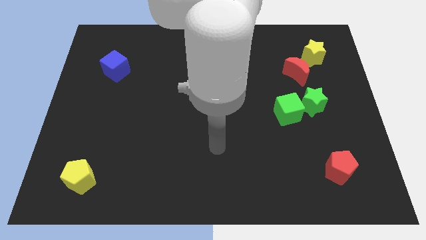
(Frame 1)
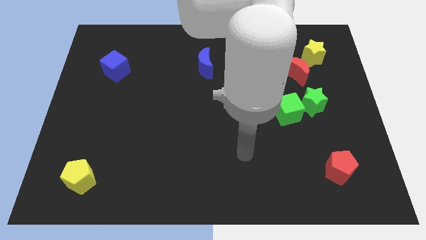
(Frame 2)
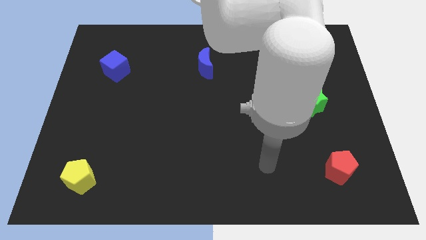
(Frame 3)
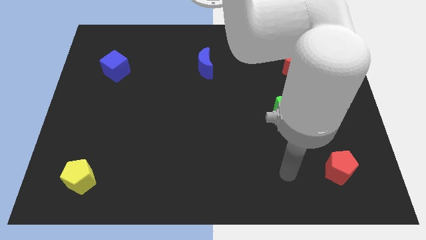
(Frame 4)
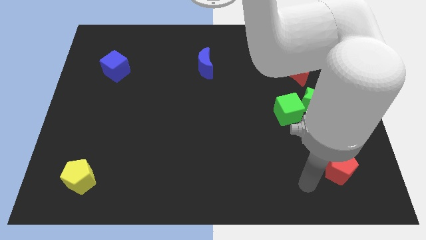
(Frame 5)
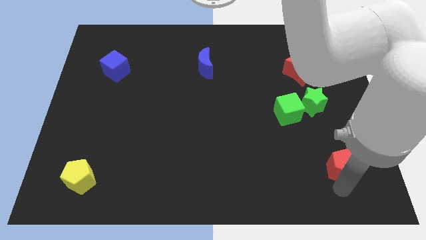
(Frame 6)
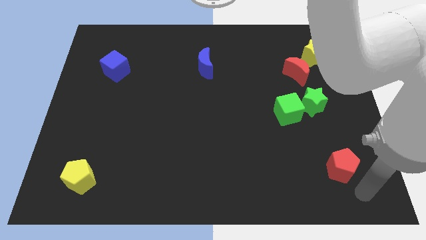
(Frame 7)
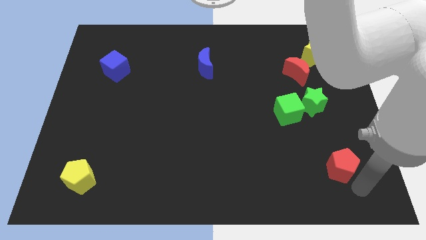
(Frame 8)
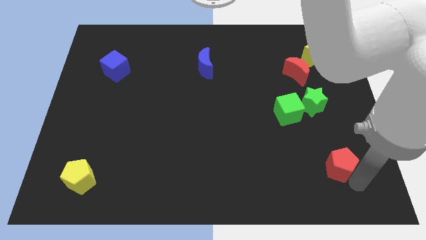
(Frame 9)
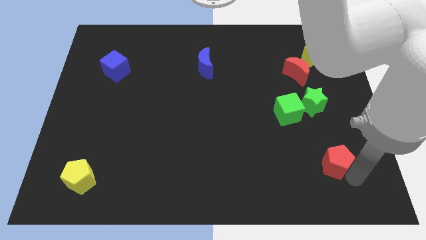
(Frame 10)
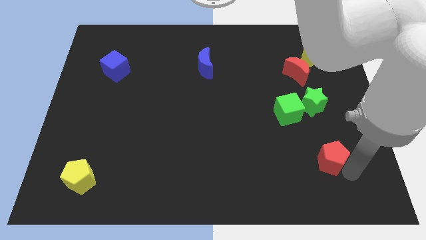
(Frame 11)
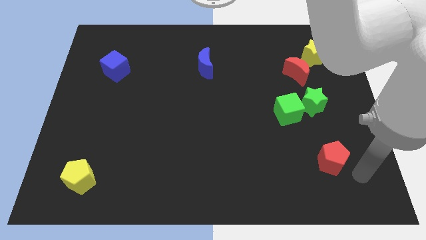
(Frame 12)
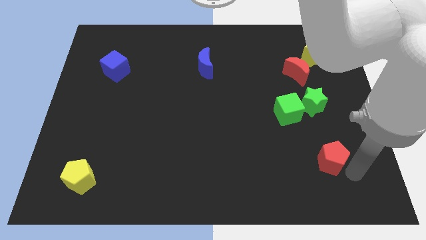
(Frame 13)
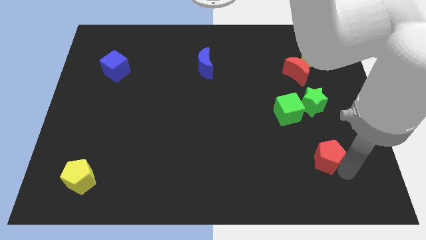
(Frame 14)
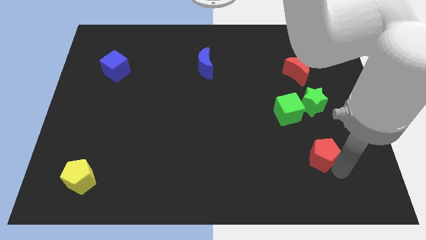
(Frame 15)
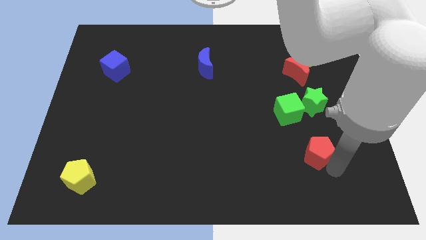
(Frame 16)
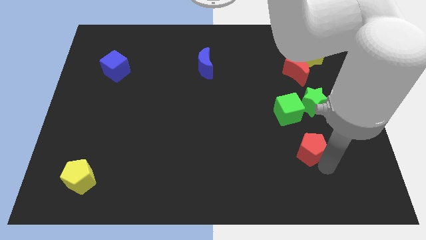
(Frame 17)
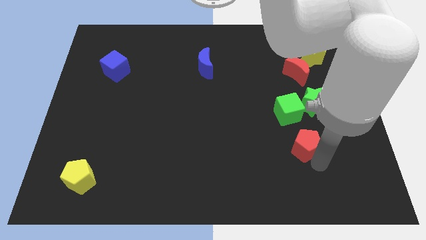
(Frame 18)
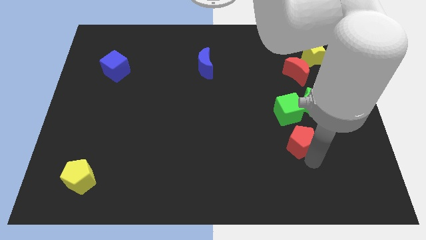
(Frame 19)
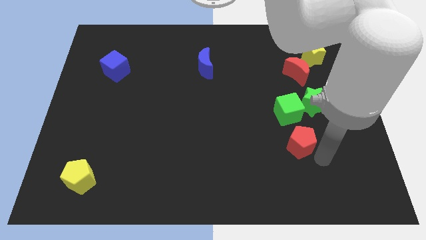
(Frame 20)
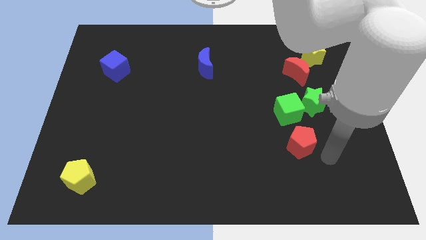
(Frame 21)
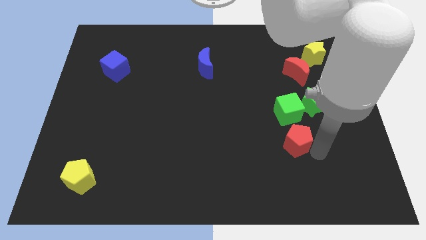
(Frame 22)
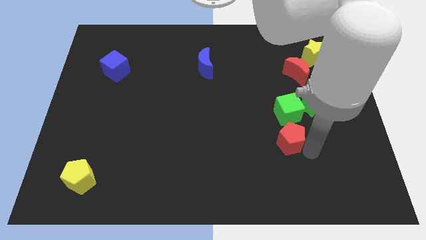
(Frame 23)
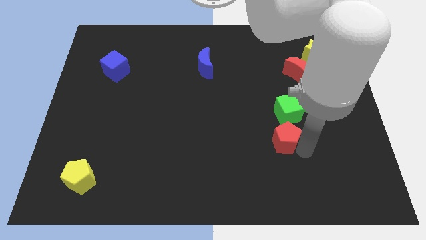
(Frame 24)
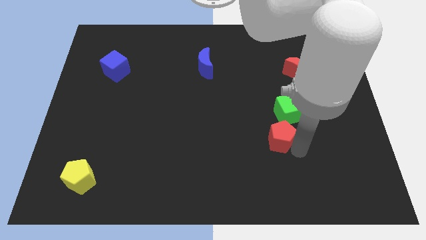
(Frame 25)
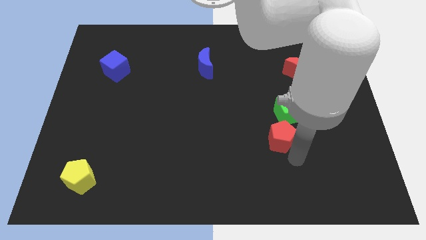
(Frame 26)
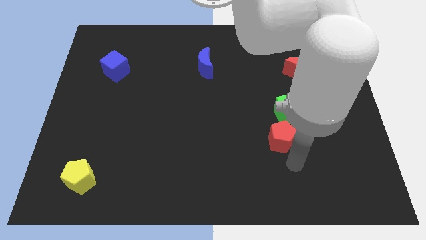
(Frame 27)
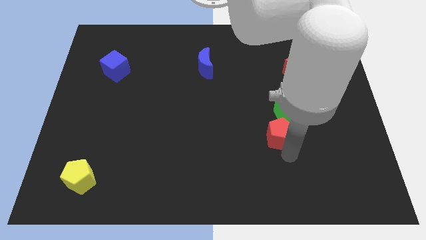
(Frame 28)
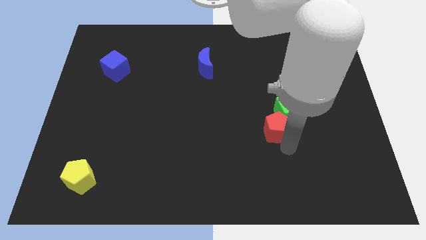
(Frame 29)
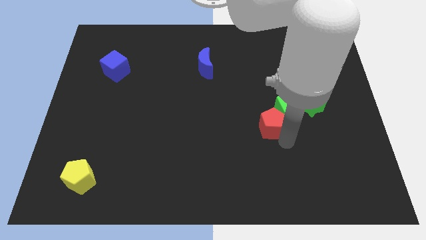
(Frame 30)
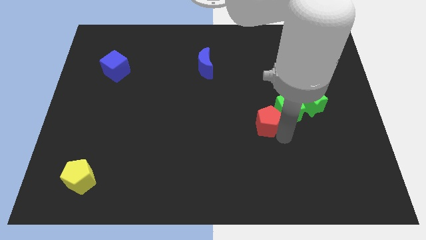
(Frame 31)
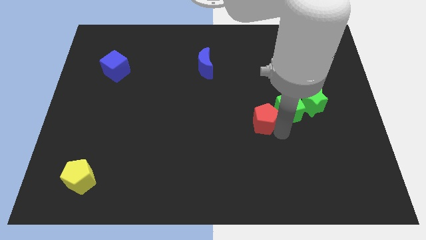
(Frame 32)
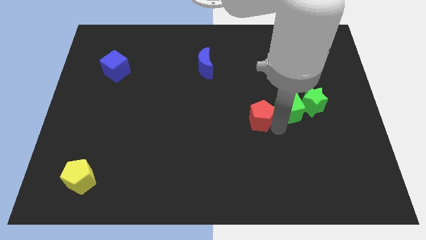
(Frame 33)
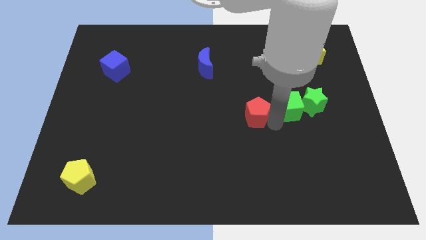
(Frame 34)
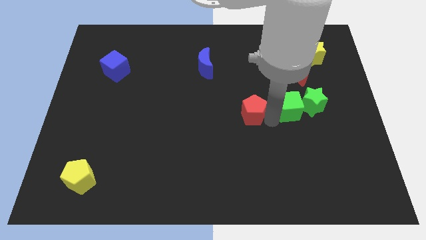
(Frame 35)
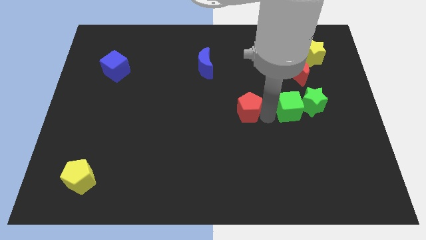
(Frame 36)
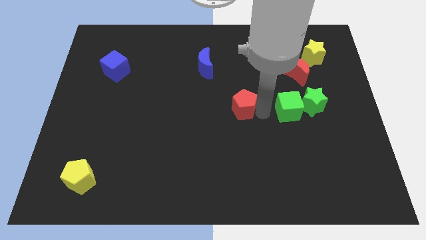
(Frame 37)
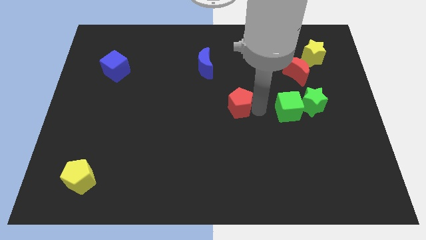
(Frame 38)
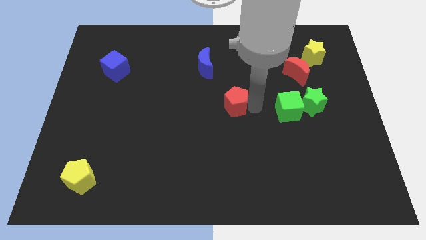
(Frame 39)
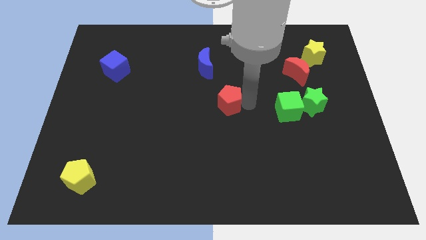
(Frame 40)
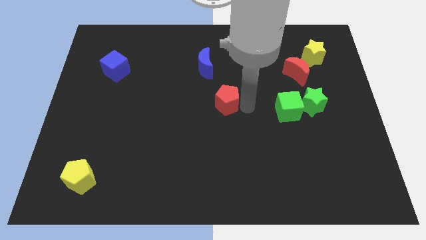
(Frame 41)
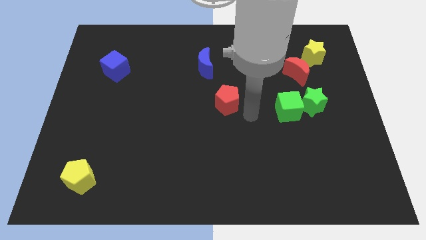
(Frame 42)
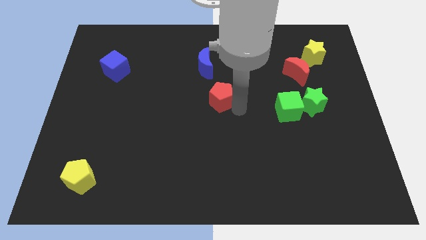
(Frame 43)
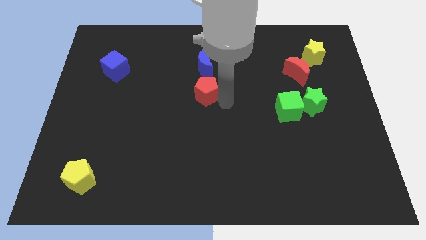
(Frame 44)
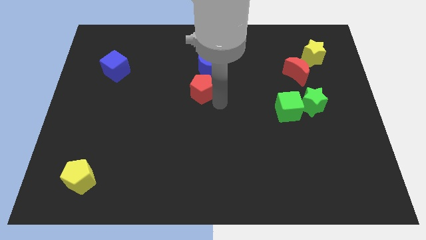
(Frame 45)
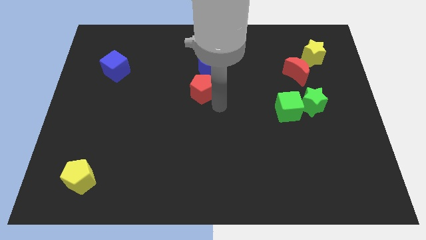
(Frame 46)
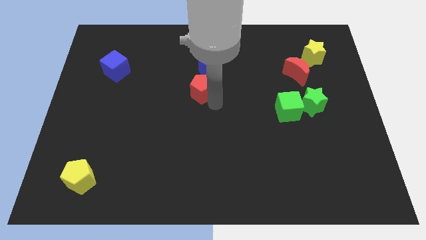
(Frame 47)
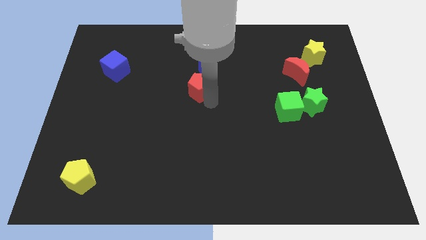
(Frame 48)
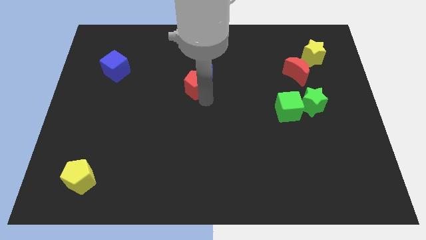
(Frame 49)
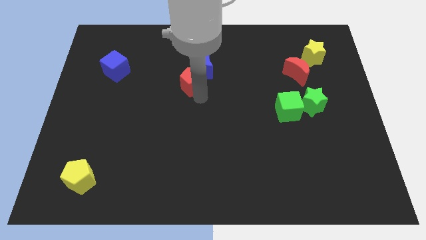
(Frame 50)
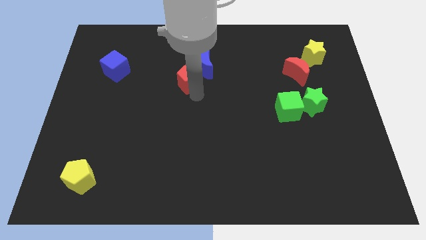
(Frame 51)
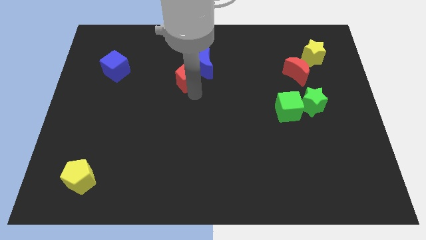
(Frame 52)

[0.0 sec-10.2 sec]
move the red pentagon just left of the blue moon

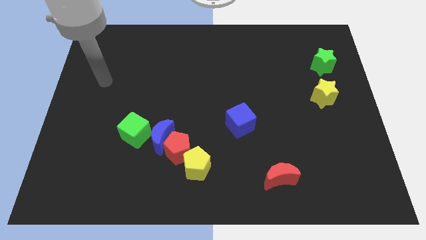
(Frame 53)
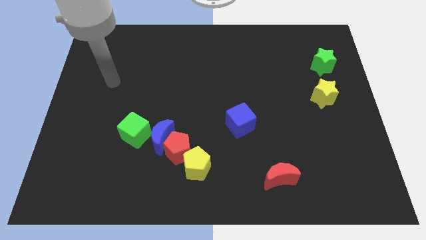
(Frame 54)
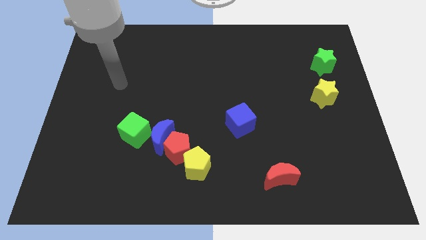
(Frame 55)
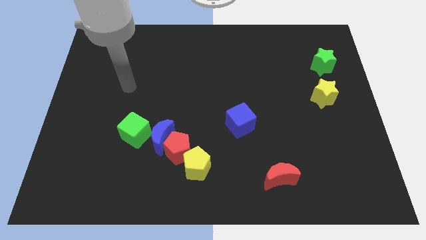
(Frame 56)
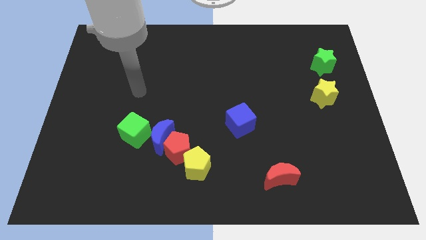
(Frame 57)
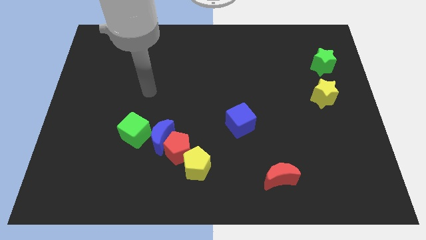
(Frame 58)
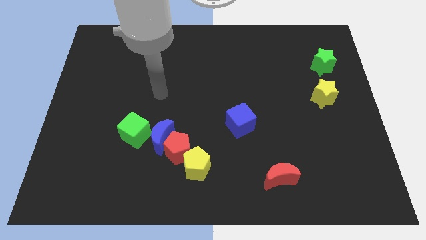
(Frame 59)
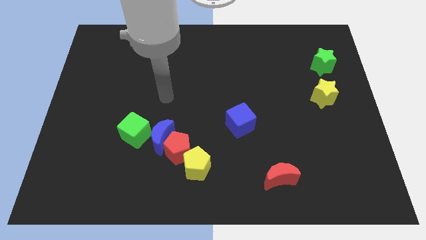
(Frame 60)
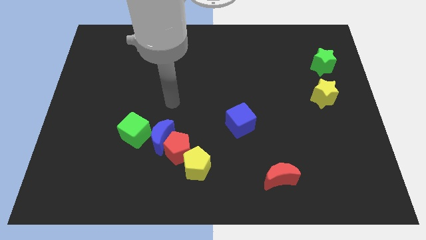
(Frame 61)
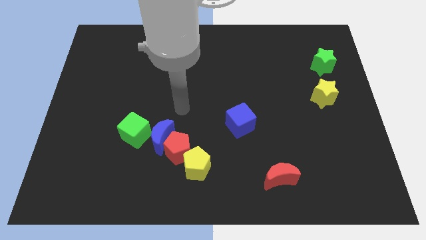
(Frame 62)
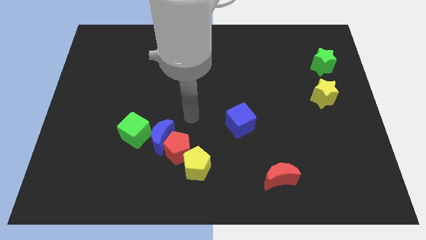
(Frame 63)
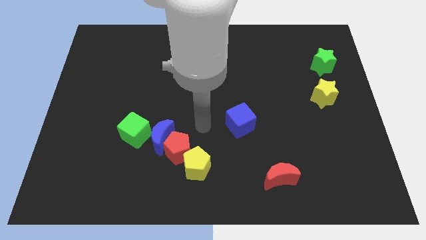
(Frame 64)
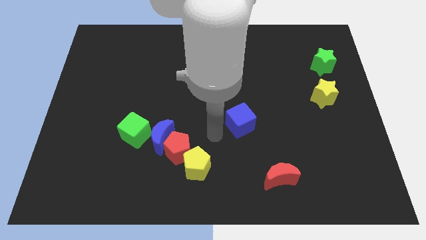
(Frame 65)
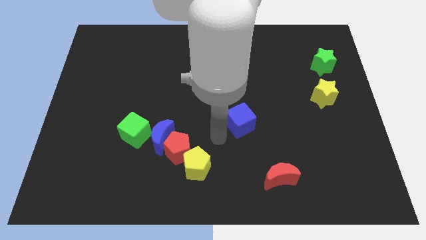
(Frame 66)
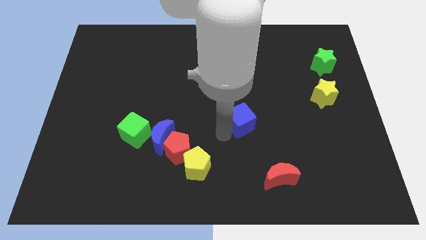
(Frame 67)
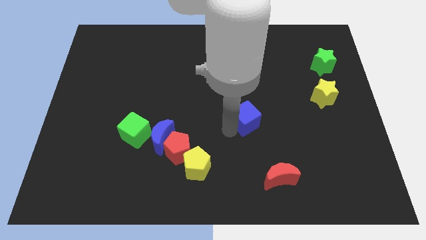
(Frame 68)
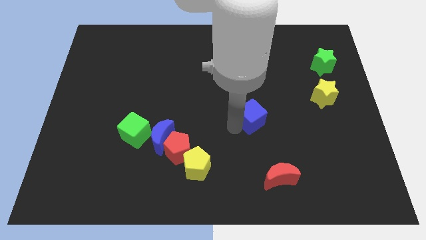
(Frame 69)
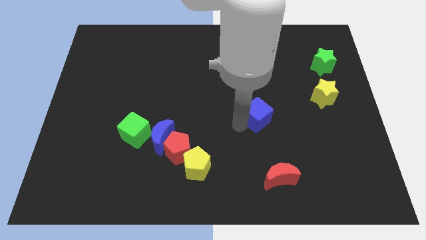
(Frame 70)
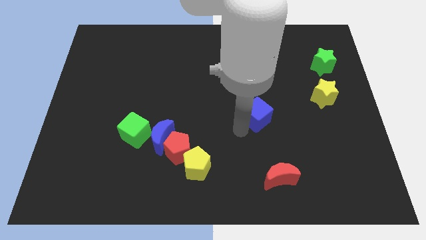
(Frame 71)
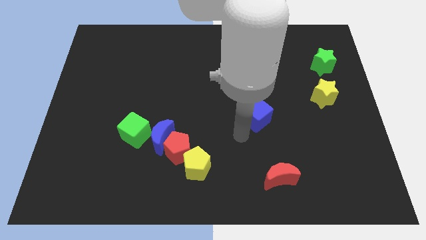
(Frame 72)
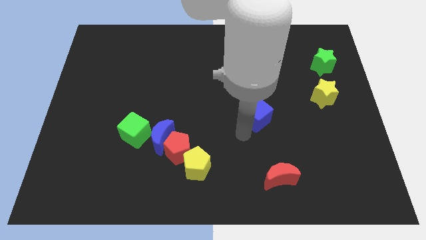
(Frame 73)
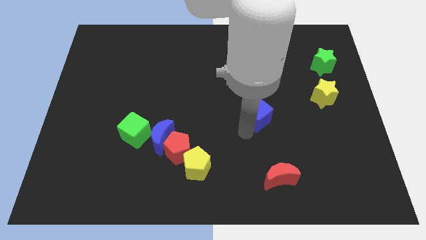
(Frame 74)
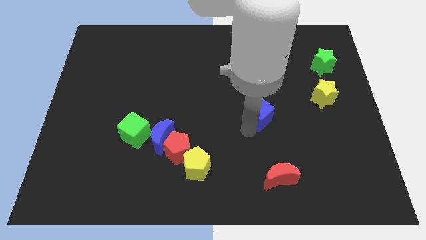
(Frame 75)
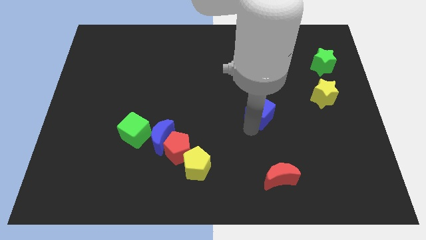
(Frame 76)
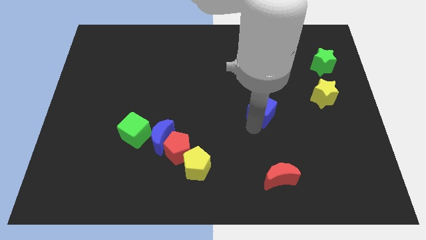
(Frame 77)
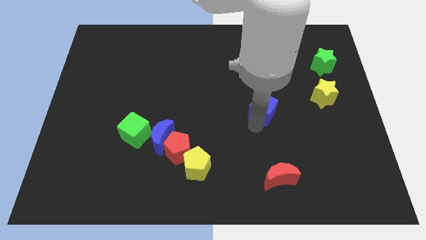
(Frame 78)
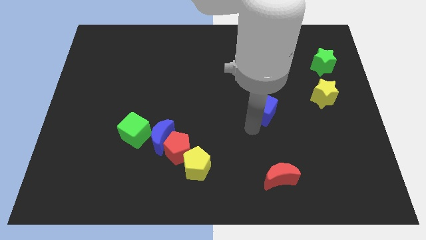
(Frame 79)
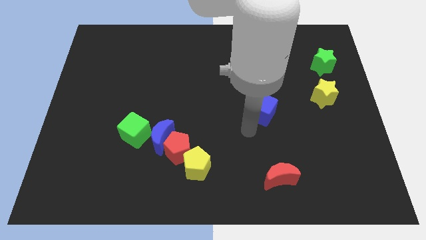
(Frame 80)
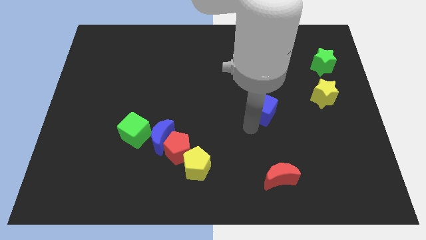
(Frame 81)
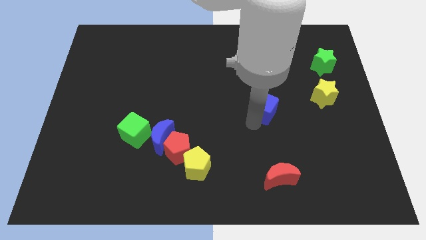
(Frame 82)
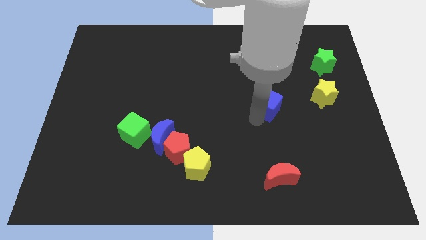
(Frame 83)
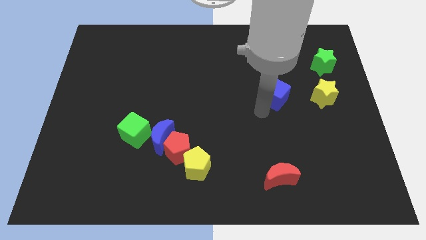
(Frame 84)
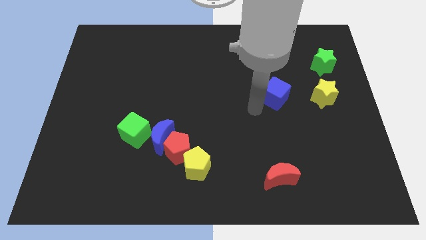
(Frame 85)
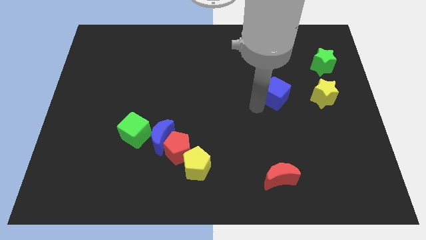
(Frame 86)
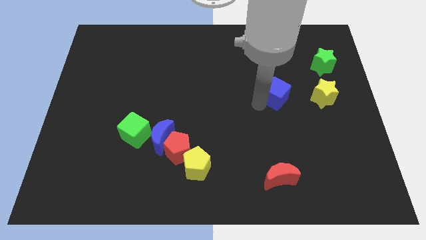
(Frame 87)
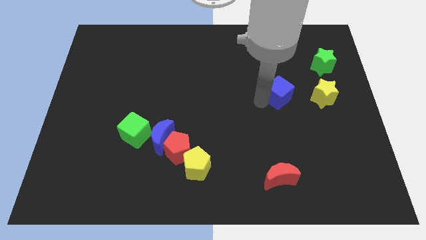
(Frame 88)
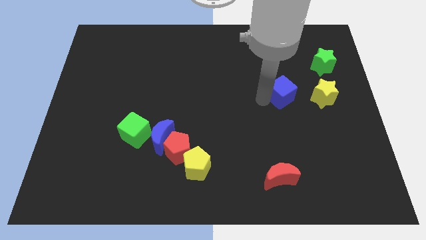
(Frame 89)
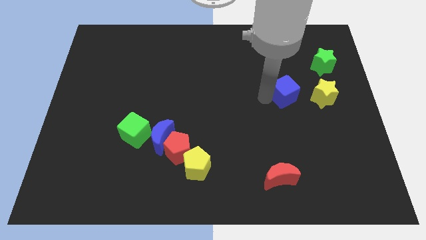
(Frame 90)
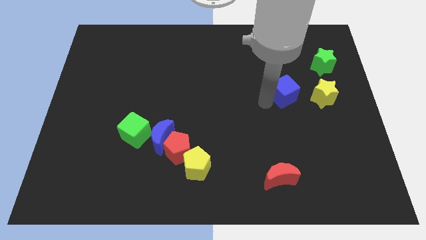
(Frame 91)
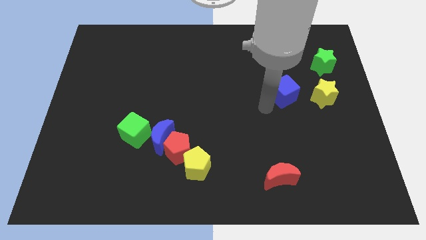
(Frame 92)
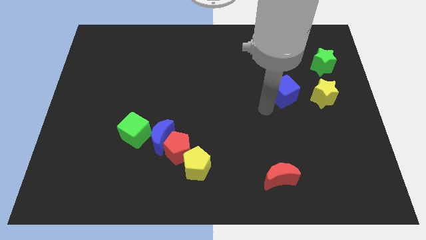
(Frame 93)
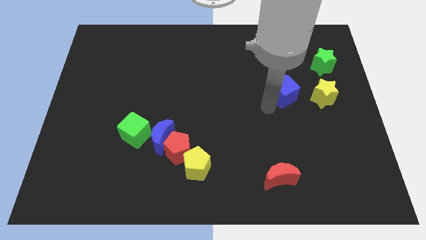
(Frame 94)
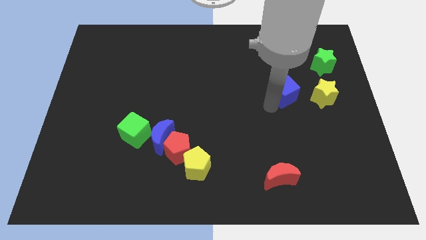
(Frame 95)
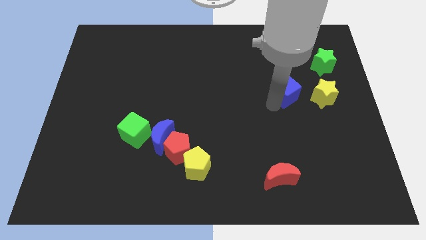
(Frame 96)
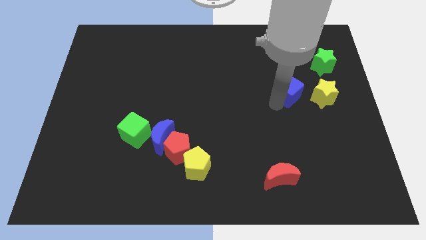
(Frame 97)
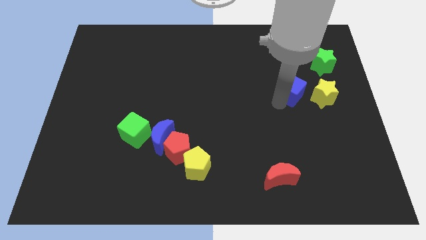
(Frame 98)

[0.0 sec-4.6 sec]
put the blue cube to the top left of the yellow star
